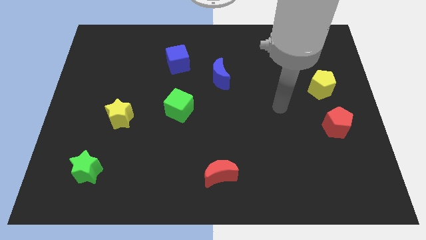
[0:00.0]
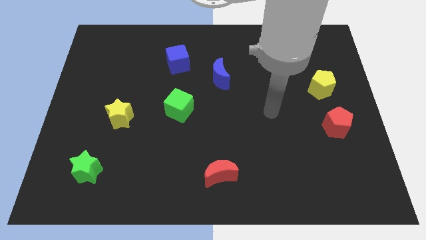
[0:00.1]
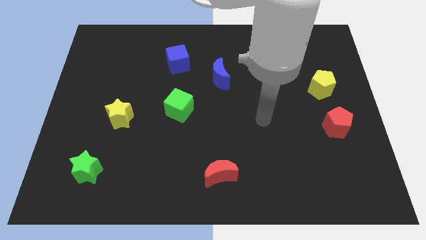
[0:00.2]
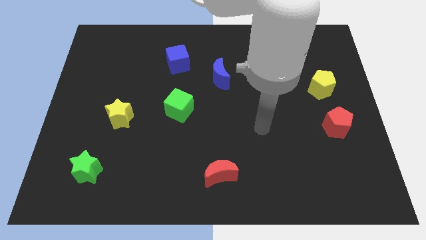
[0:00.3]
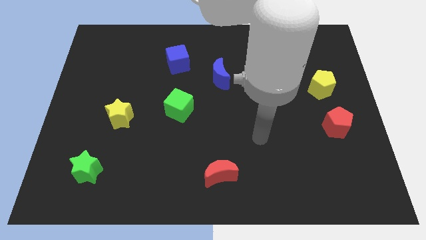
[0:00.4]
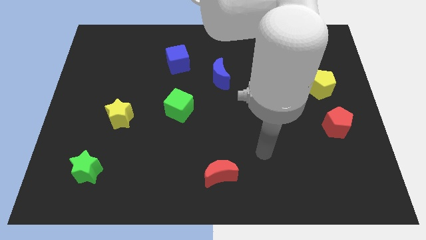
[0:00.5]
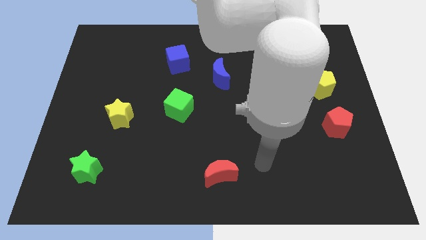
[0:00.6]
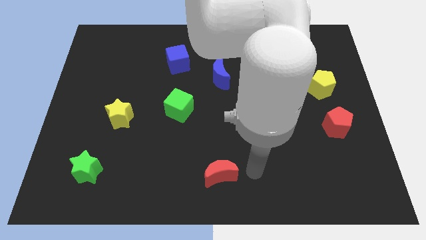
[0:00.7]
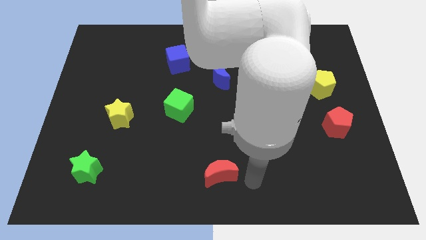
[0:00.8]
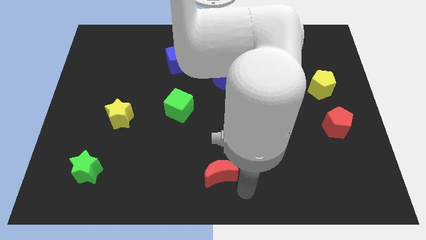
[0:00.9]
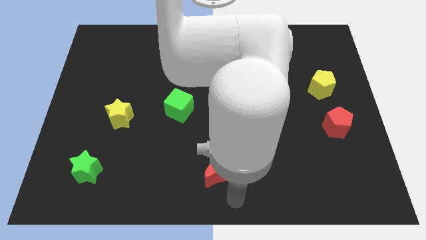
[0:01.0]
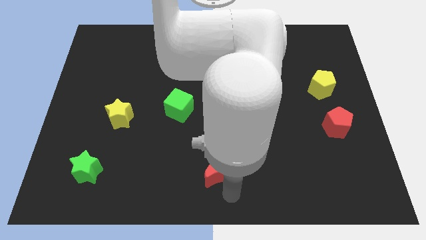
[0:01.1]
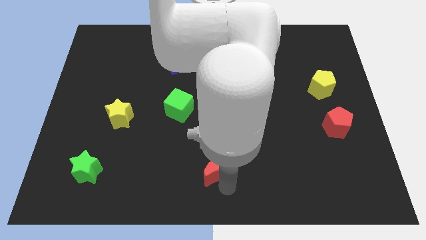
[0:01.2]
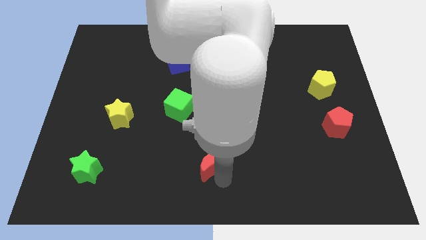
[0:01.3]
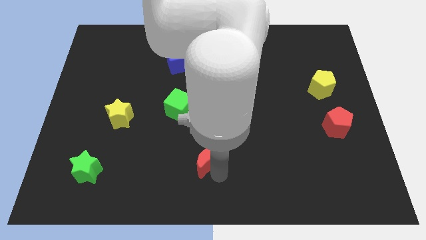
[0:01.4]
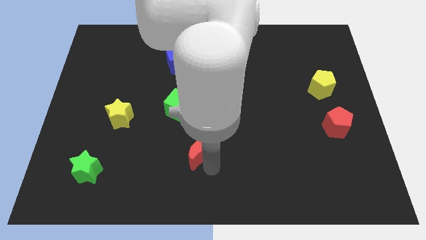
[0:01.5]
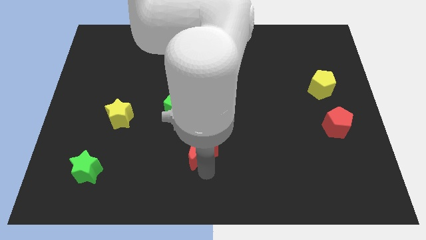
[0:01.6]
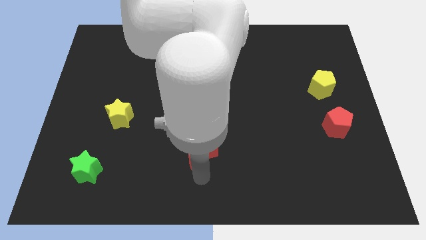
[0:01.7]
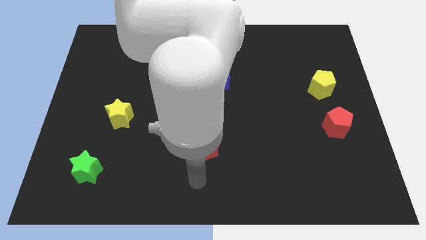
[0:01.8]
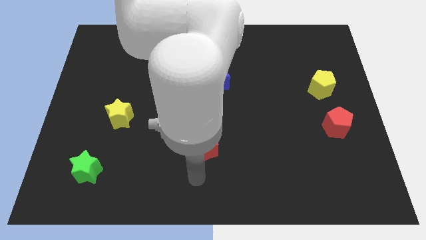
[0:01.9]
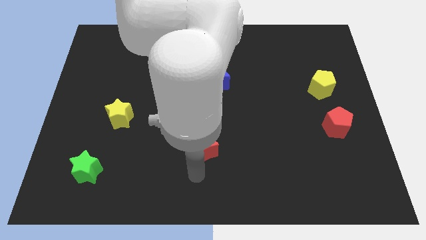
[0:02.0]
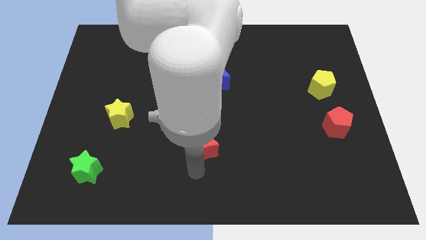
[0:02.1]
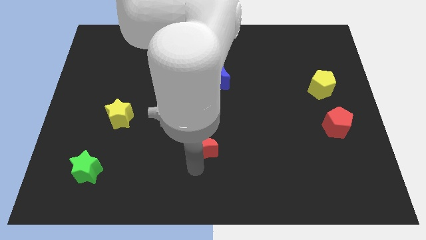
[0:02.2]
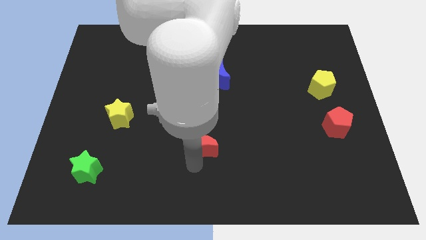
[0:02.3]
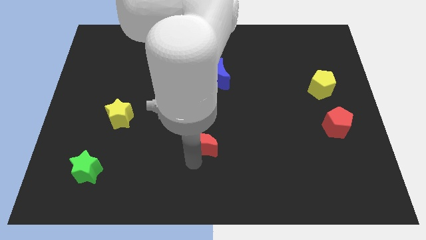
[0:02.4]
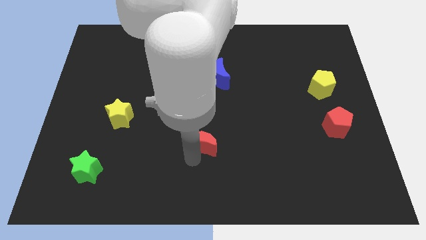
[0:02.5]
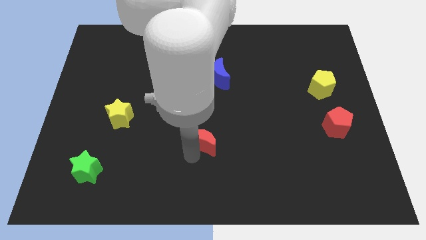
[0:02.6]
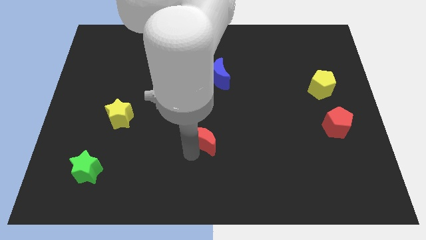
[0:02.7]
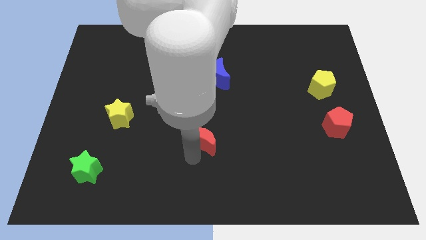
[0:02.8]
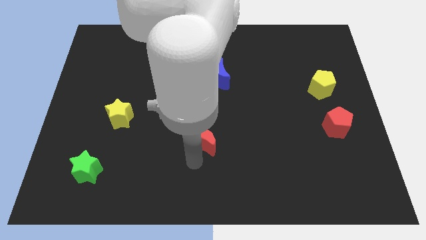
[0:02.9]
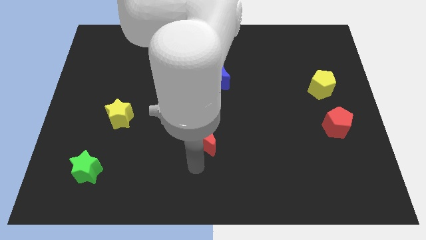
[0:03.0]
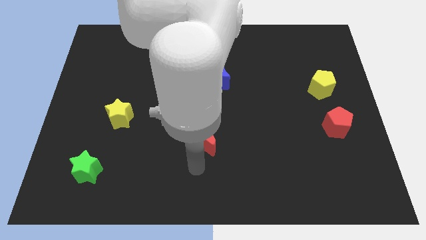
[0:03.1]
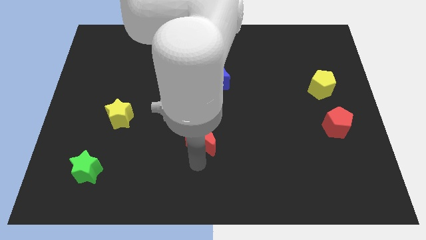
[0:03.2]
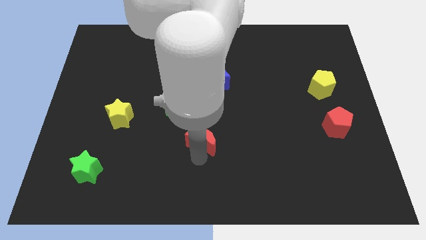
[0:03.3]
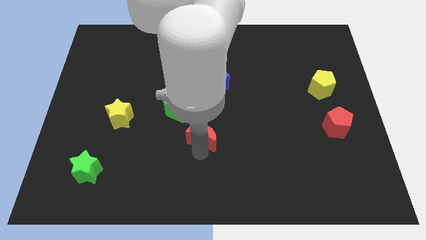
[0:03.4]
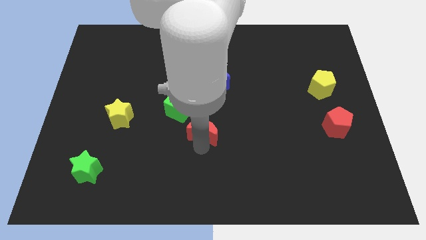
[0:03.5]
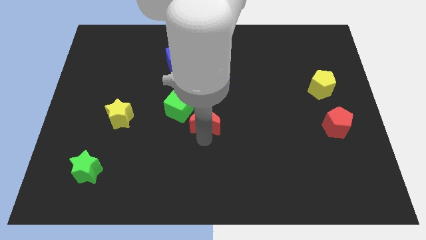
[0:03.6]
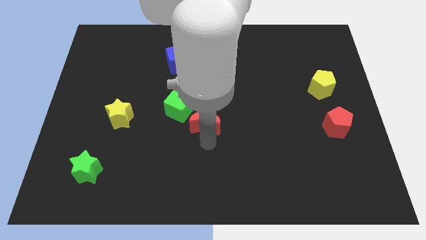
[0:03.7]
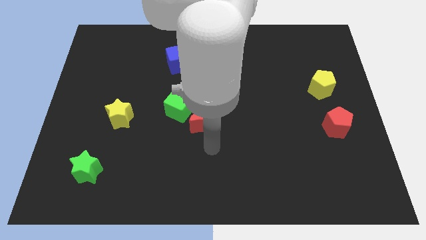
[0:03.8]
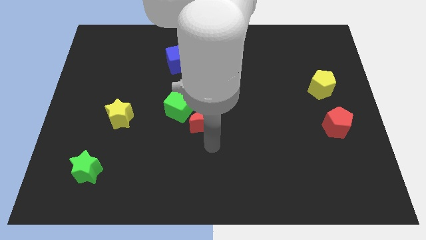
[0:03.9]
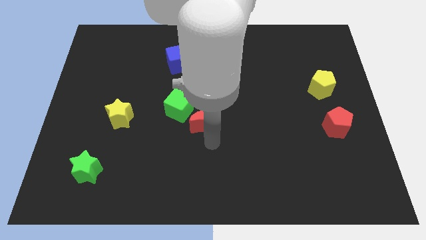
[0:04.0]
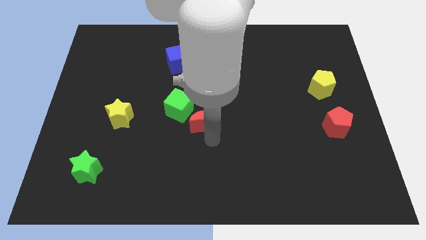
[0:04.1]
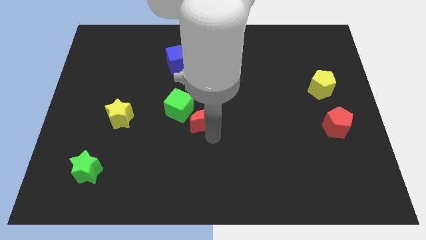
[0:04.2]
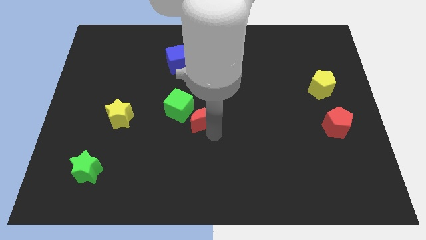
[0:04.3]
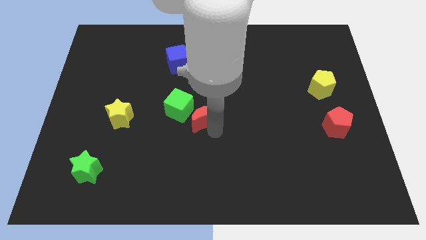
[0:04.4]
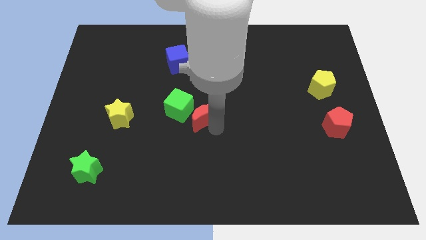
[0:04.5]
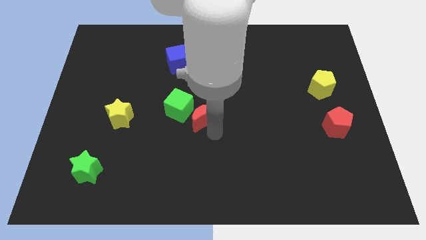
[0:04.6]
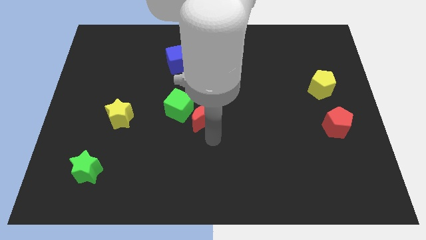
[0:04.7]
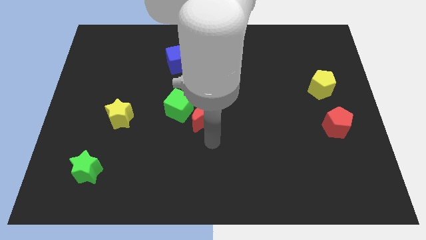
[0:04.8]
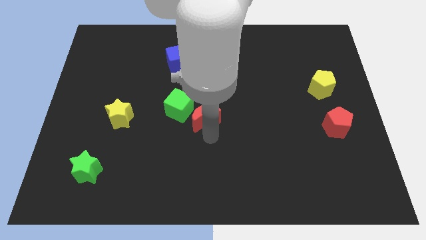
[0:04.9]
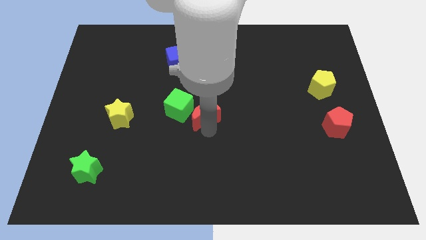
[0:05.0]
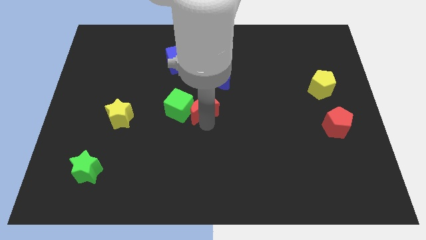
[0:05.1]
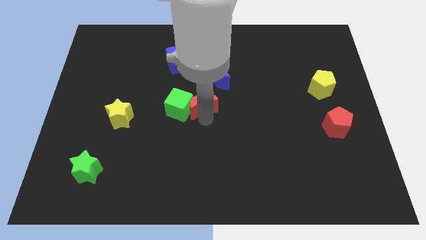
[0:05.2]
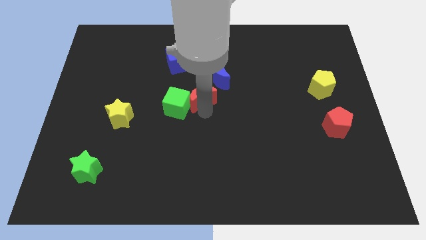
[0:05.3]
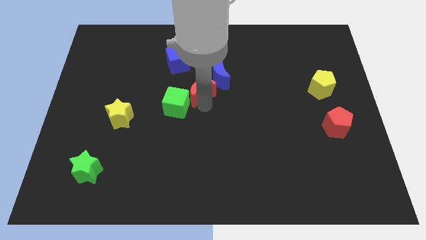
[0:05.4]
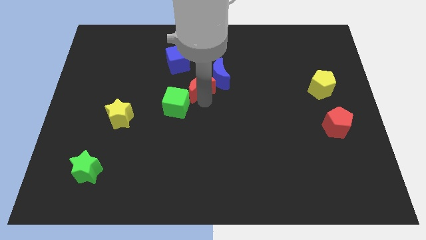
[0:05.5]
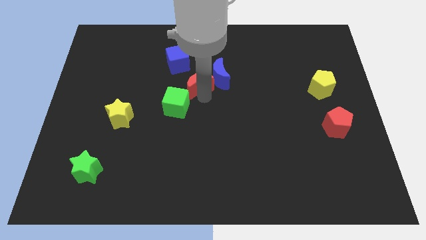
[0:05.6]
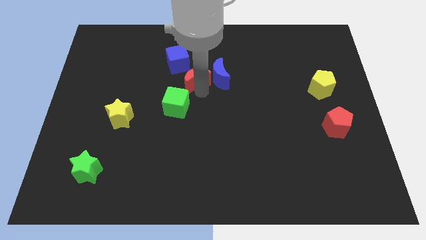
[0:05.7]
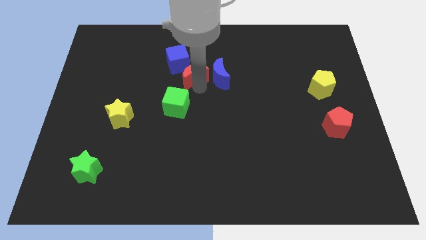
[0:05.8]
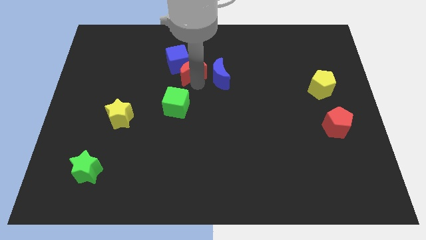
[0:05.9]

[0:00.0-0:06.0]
put the red moon next to the blue cube

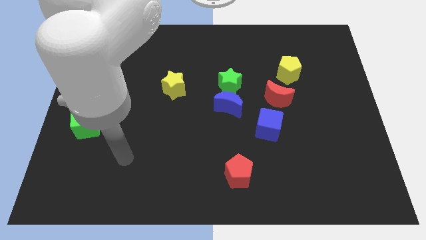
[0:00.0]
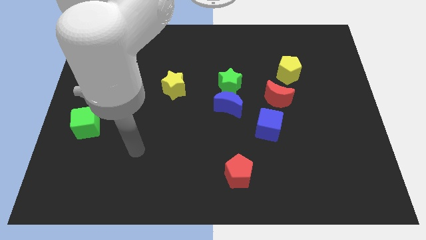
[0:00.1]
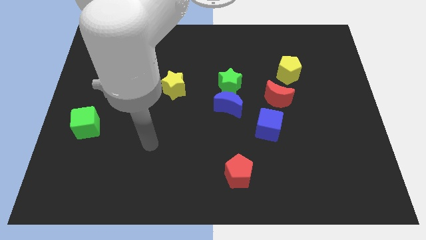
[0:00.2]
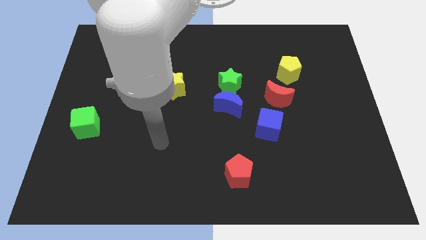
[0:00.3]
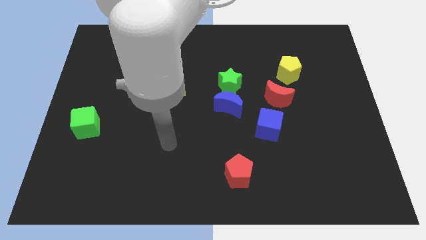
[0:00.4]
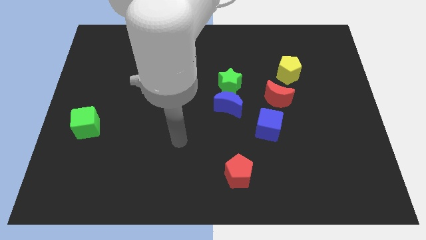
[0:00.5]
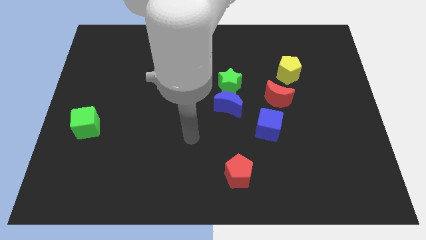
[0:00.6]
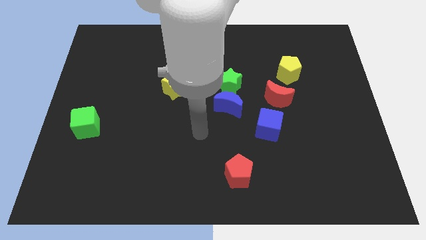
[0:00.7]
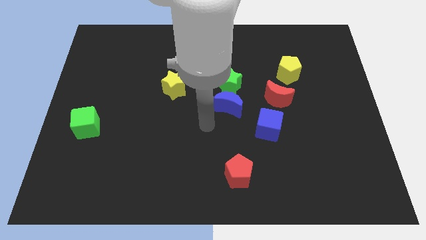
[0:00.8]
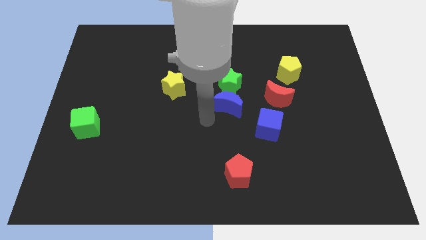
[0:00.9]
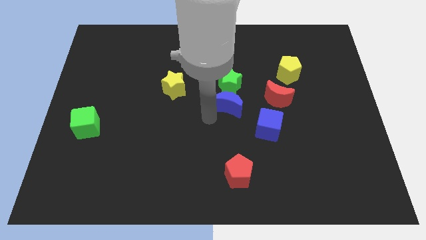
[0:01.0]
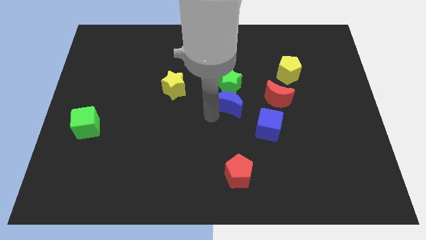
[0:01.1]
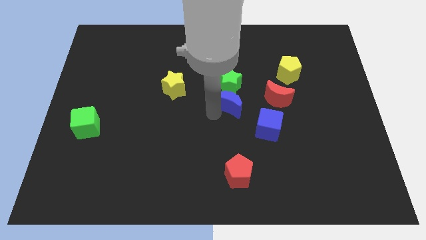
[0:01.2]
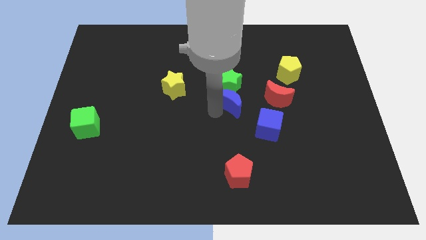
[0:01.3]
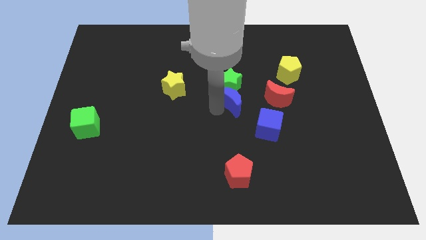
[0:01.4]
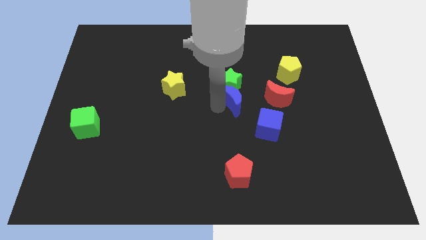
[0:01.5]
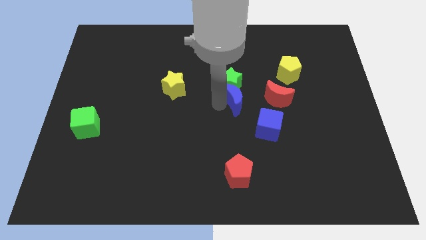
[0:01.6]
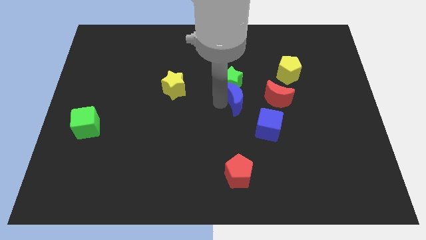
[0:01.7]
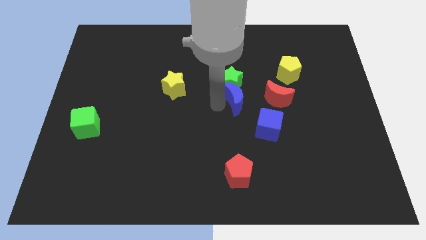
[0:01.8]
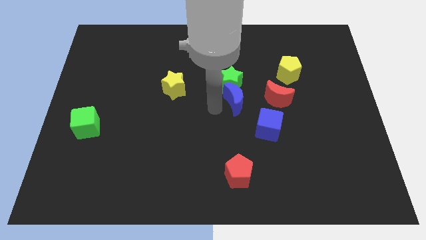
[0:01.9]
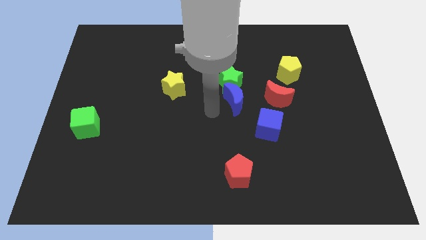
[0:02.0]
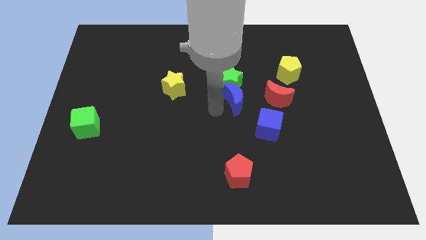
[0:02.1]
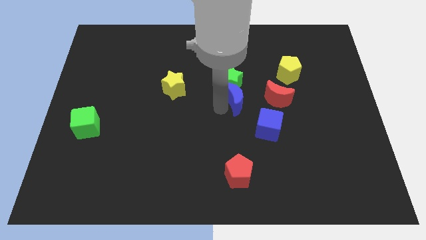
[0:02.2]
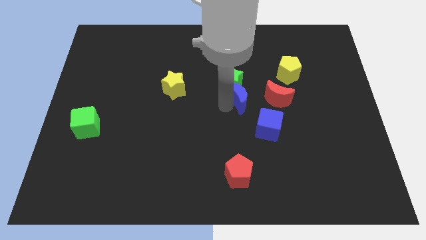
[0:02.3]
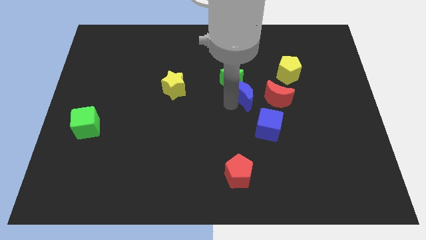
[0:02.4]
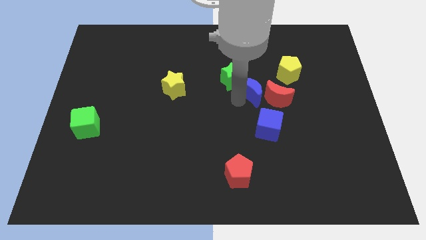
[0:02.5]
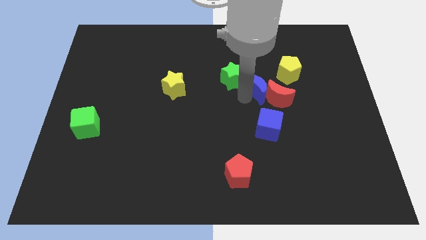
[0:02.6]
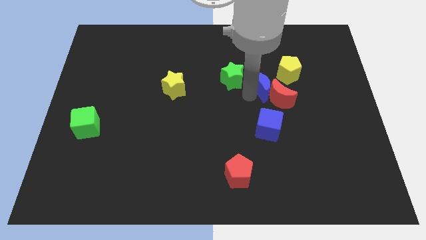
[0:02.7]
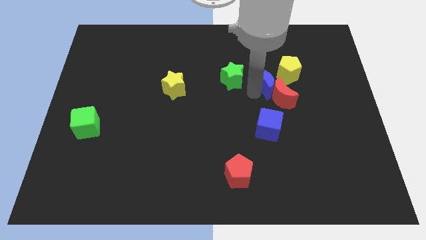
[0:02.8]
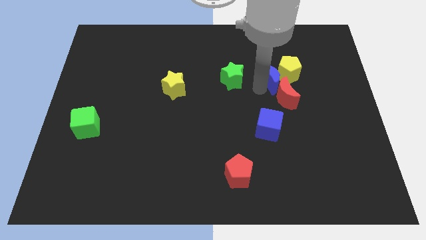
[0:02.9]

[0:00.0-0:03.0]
push the blue moon close to the yellow pentagon
